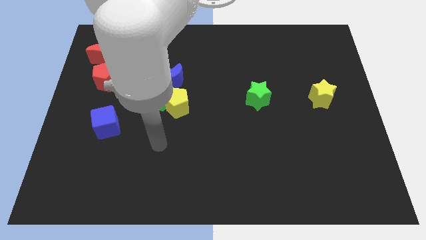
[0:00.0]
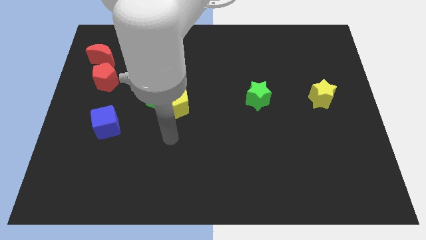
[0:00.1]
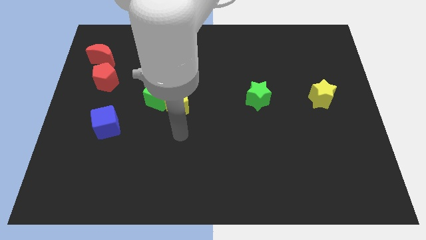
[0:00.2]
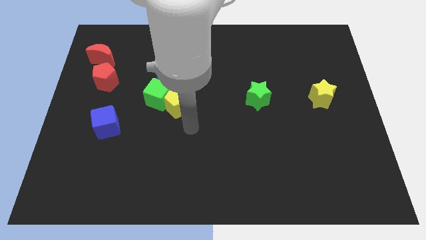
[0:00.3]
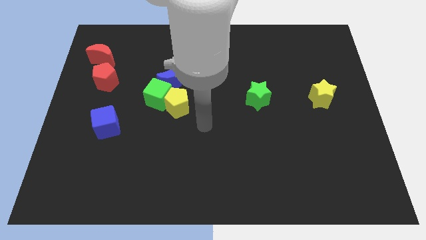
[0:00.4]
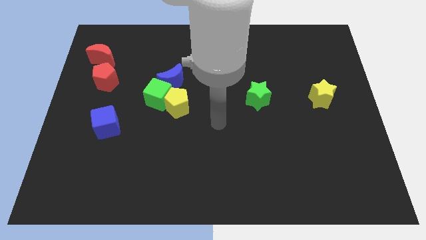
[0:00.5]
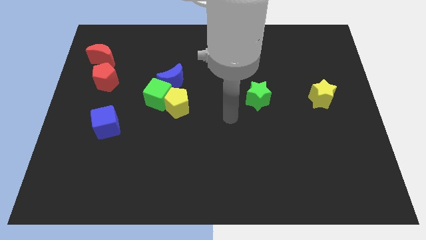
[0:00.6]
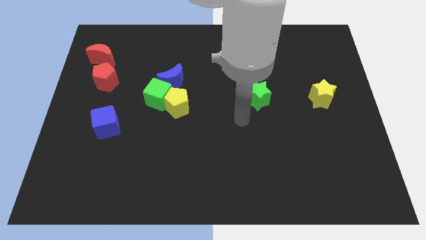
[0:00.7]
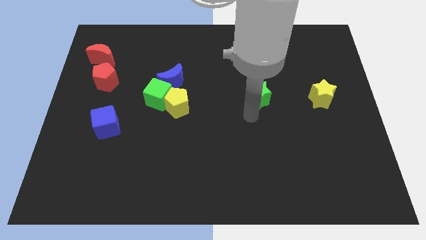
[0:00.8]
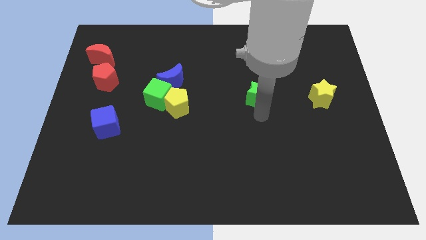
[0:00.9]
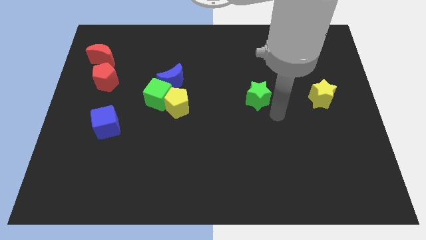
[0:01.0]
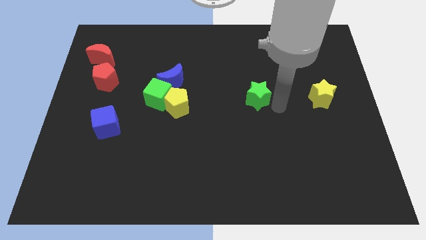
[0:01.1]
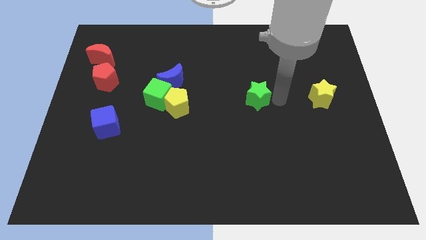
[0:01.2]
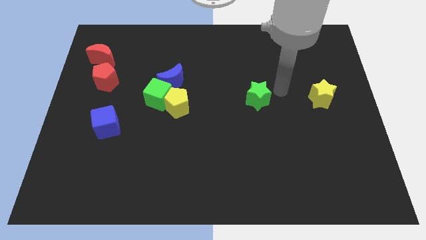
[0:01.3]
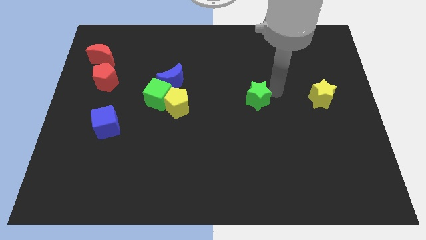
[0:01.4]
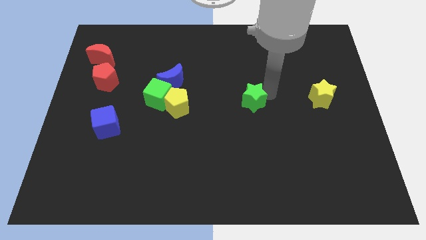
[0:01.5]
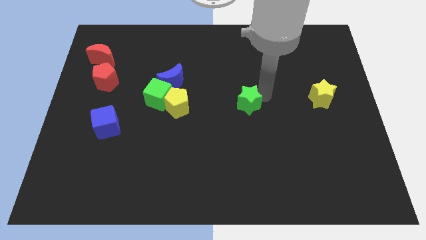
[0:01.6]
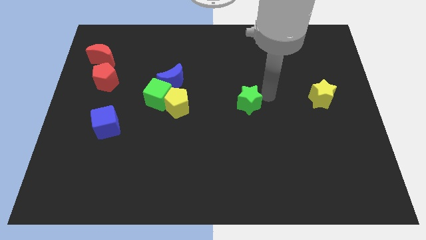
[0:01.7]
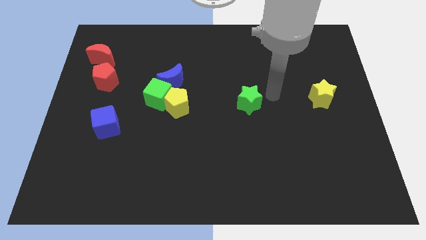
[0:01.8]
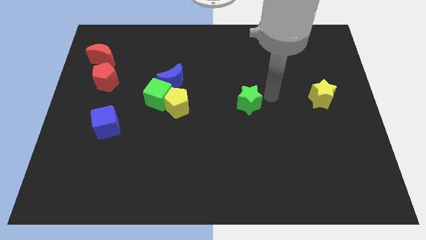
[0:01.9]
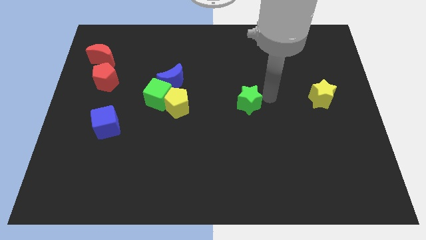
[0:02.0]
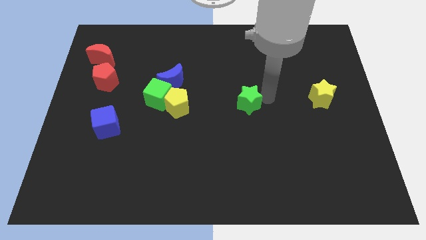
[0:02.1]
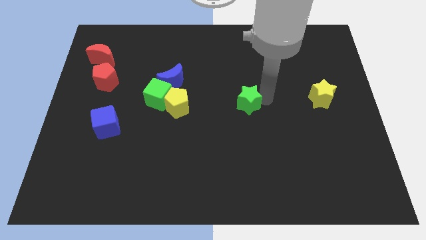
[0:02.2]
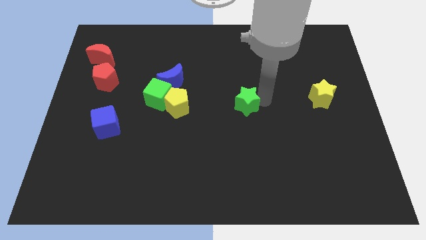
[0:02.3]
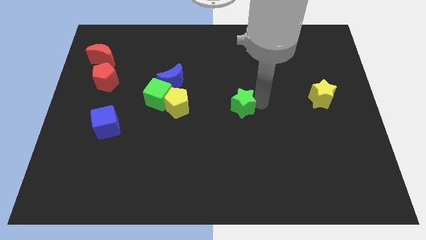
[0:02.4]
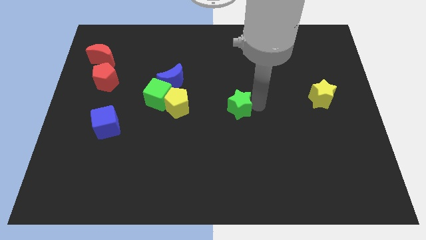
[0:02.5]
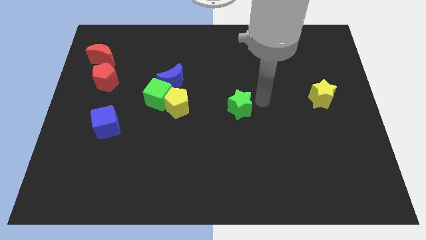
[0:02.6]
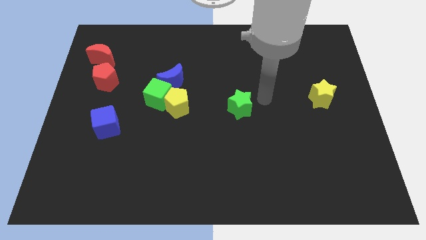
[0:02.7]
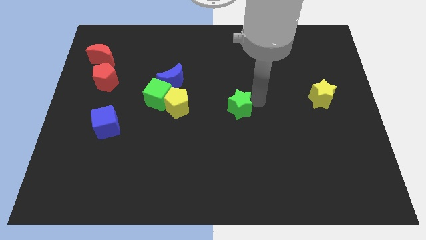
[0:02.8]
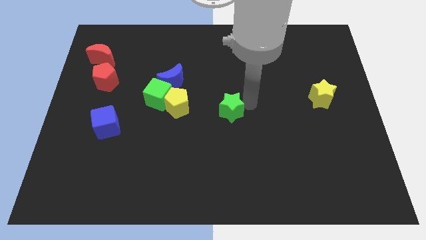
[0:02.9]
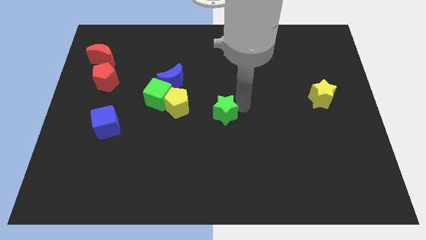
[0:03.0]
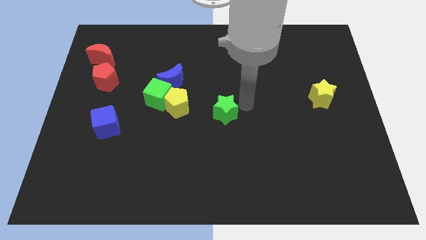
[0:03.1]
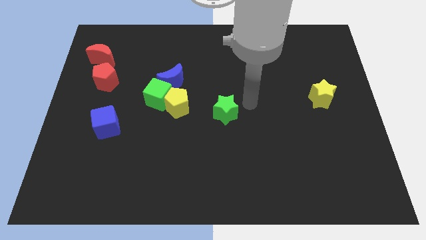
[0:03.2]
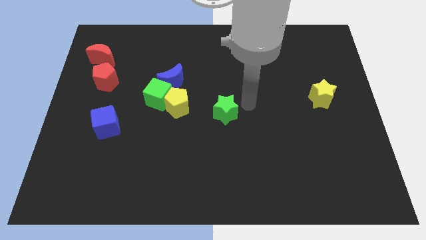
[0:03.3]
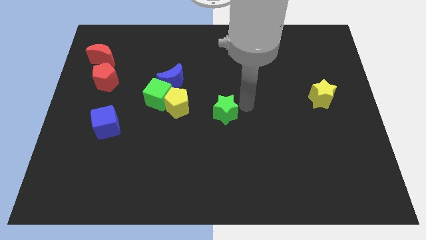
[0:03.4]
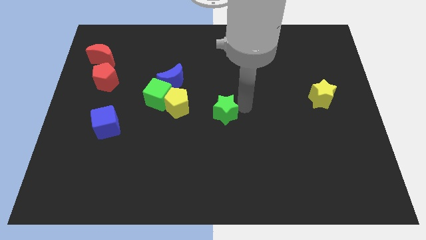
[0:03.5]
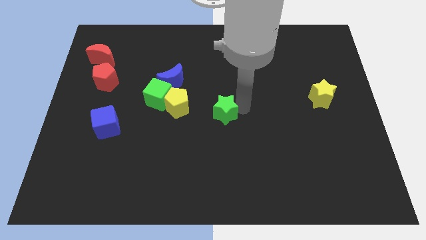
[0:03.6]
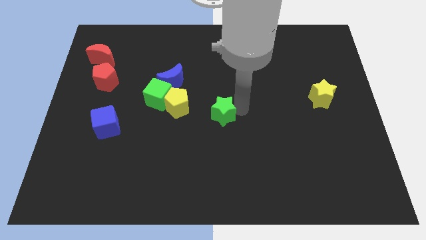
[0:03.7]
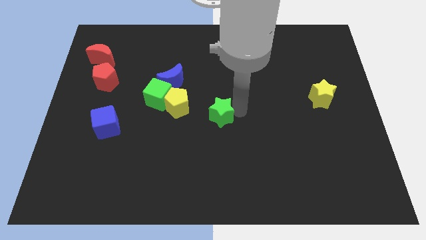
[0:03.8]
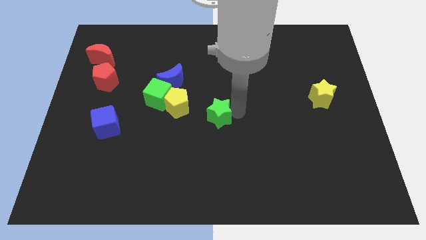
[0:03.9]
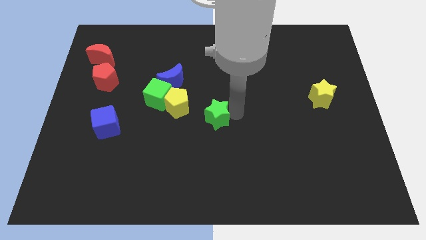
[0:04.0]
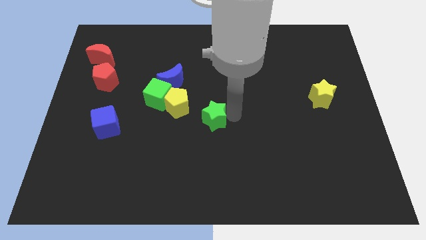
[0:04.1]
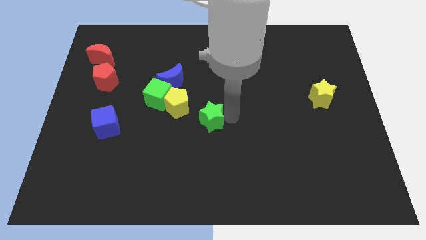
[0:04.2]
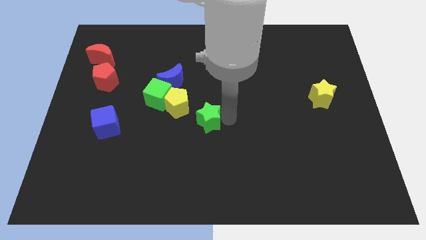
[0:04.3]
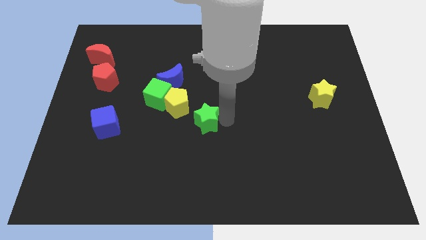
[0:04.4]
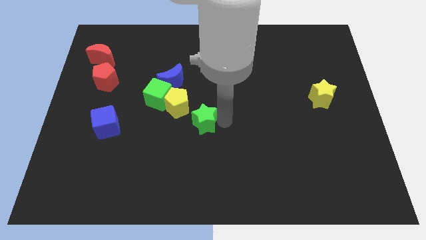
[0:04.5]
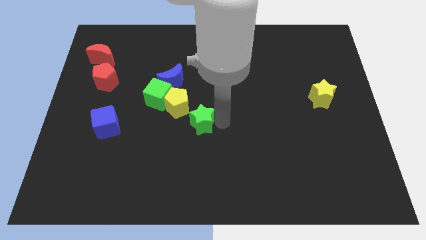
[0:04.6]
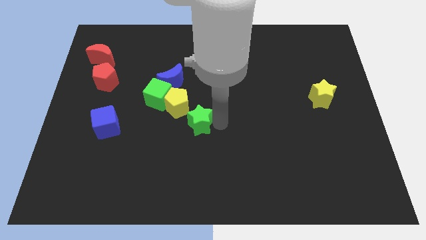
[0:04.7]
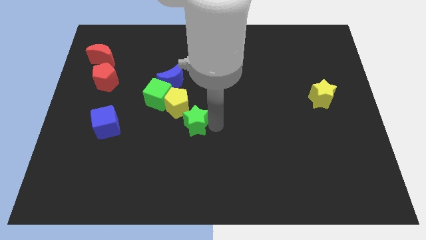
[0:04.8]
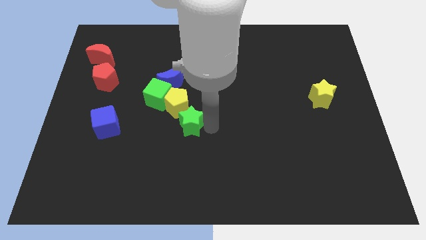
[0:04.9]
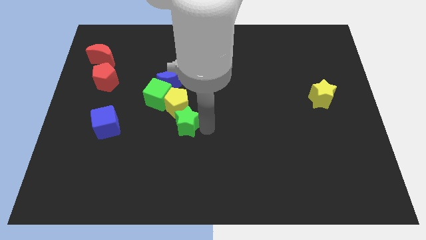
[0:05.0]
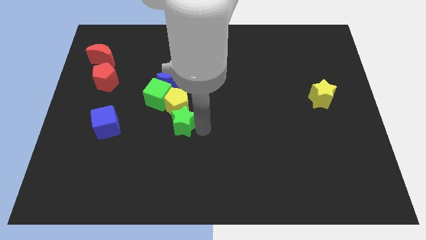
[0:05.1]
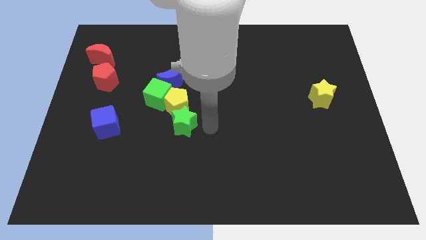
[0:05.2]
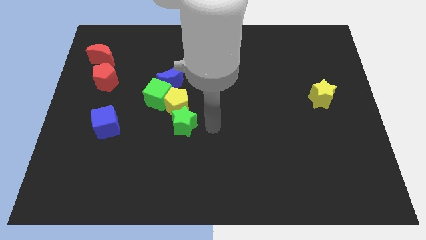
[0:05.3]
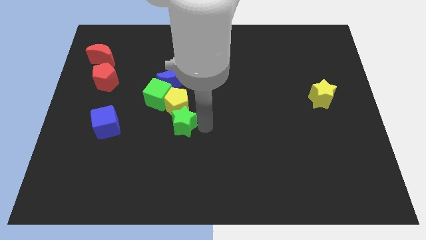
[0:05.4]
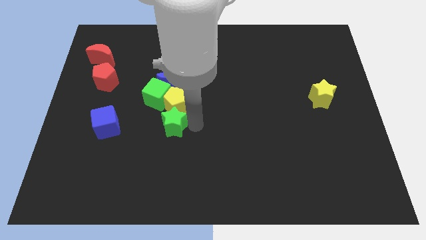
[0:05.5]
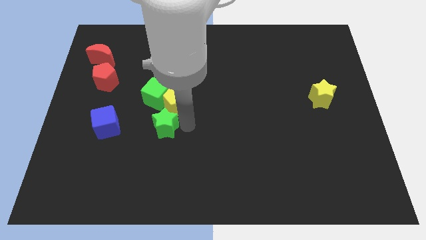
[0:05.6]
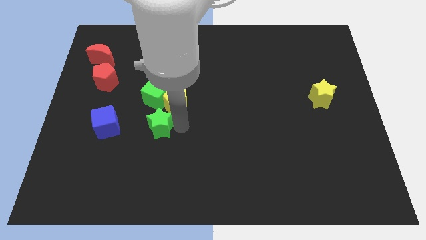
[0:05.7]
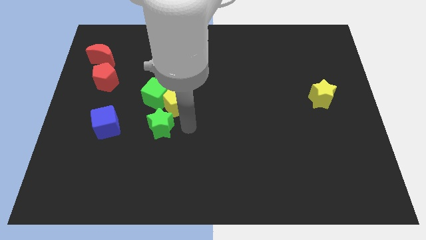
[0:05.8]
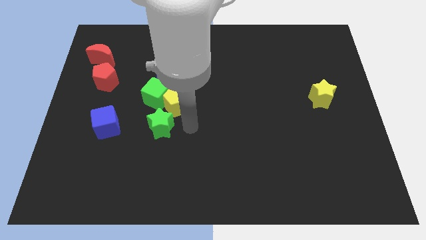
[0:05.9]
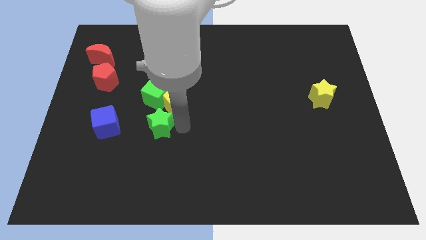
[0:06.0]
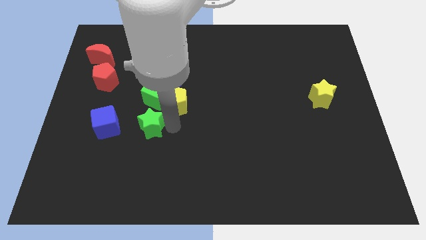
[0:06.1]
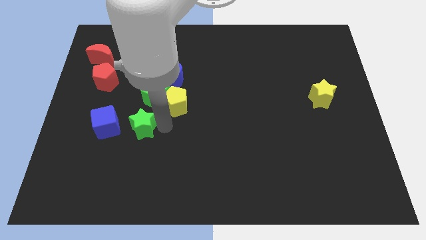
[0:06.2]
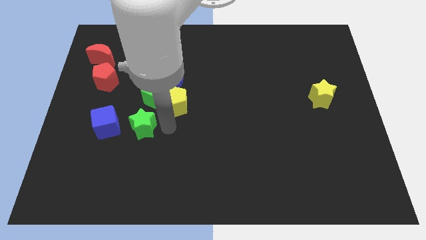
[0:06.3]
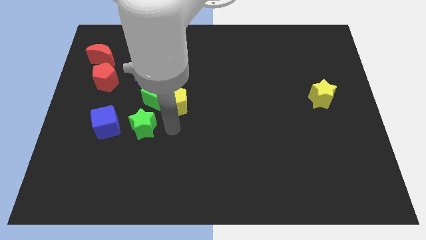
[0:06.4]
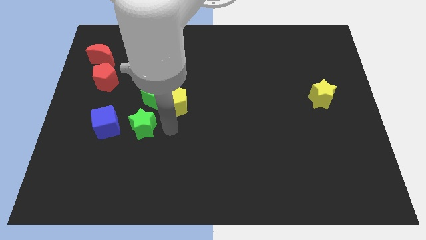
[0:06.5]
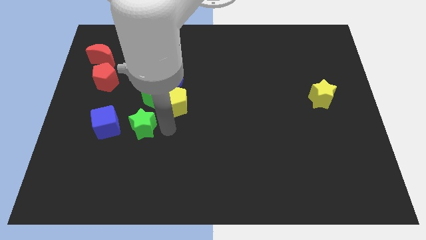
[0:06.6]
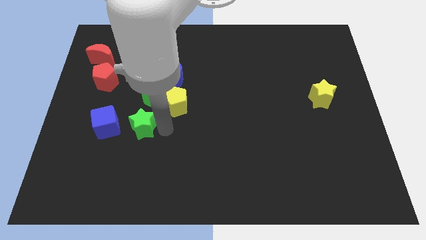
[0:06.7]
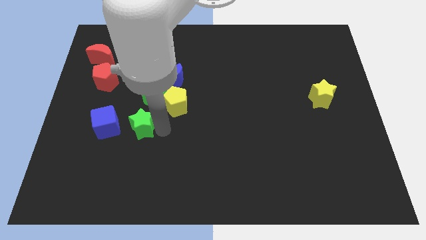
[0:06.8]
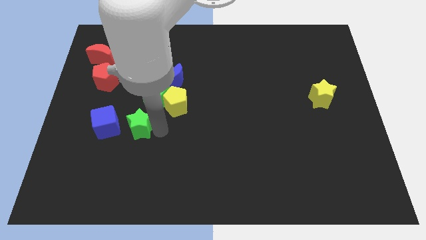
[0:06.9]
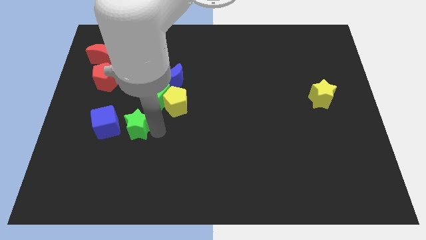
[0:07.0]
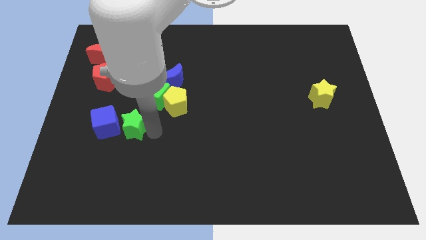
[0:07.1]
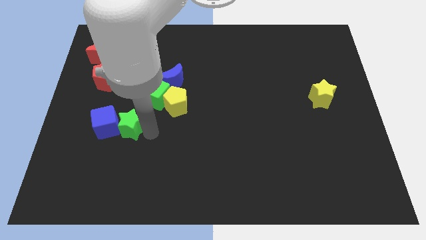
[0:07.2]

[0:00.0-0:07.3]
slide the green star next to the blue cube
